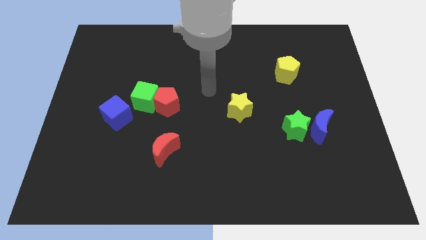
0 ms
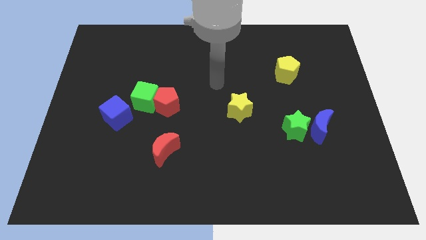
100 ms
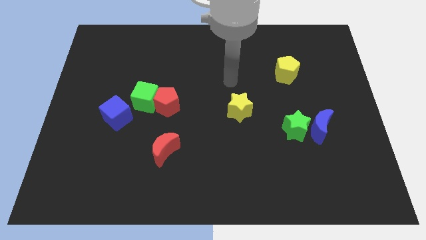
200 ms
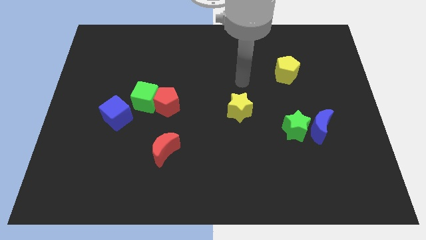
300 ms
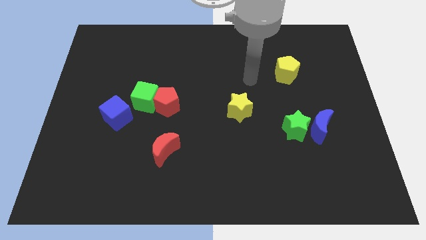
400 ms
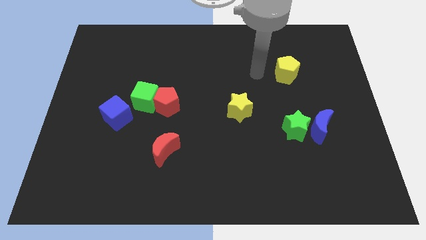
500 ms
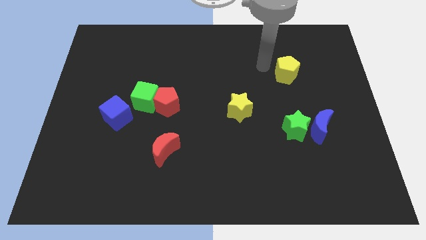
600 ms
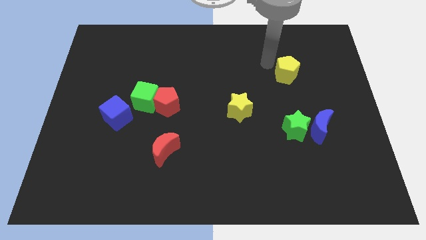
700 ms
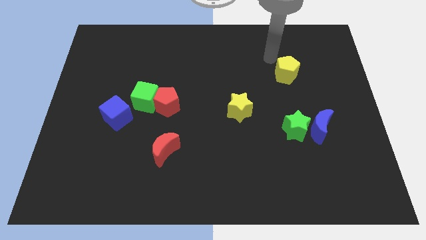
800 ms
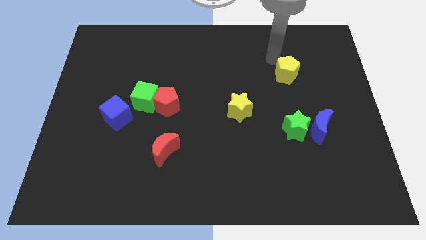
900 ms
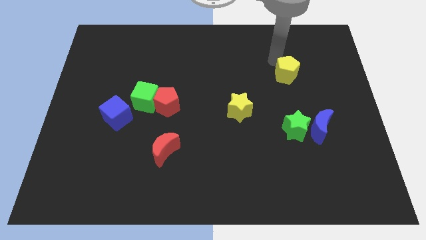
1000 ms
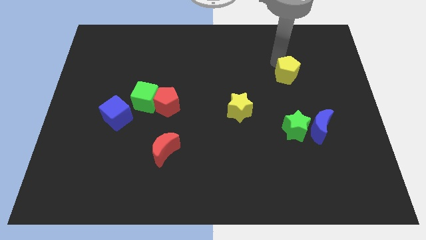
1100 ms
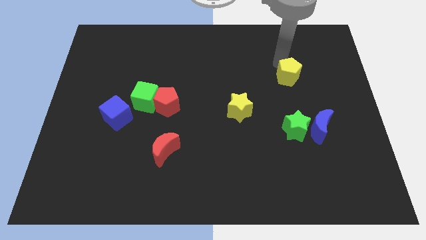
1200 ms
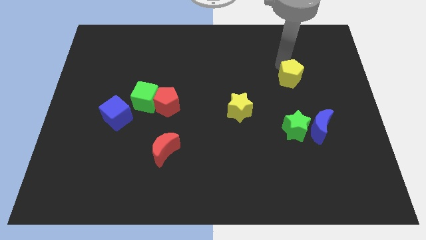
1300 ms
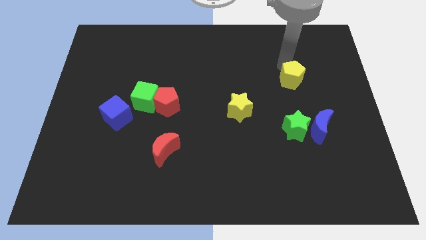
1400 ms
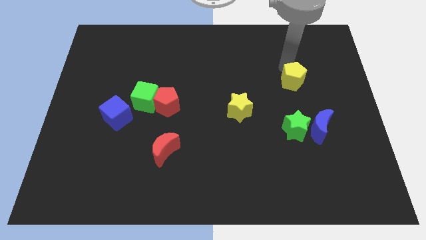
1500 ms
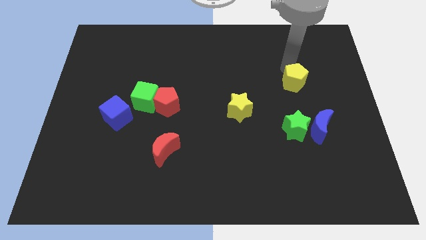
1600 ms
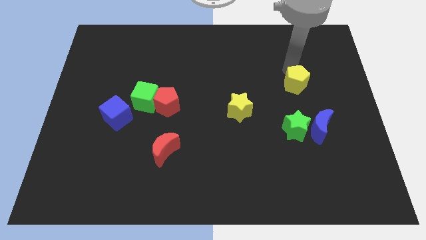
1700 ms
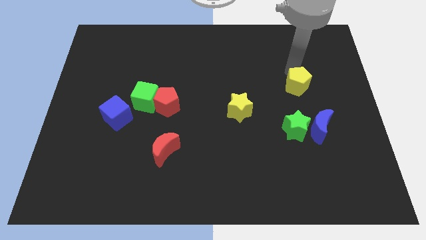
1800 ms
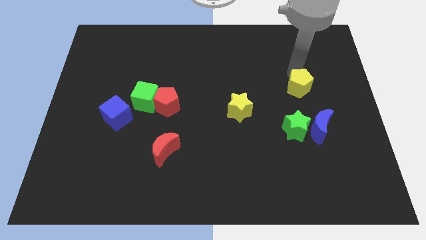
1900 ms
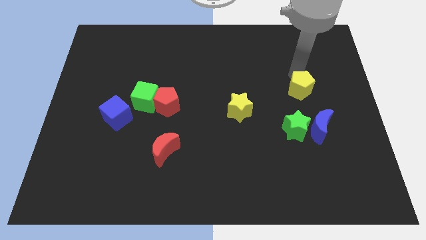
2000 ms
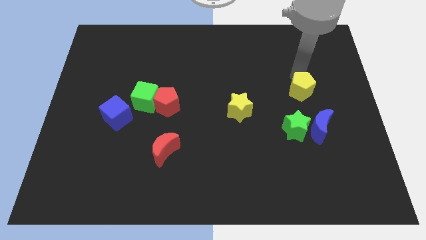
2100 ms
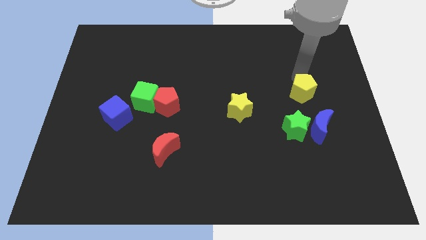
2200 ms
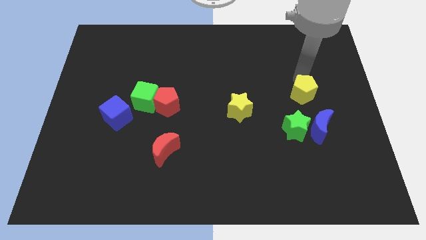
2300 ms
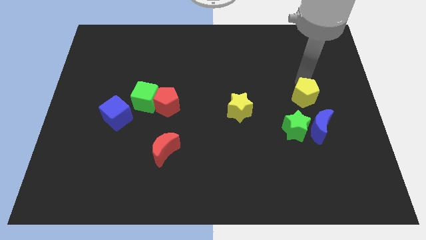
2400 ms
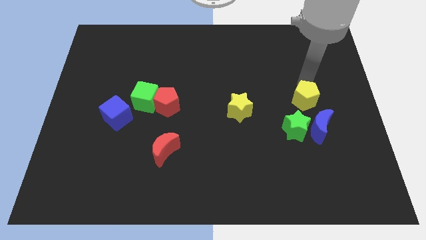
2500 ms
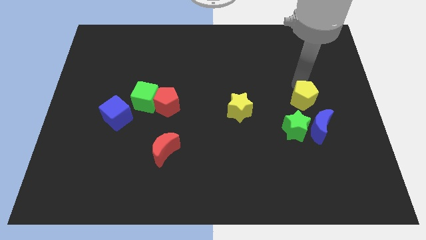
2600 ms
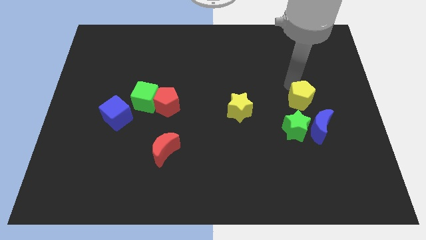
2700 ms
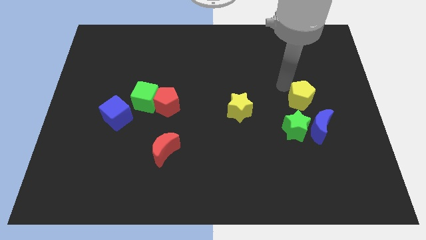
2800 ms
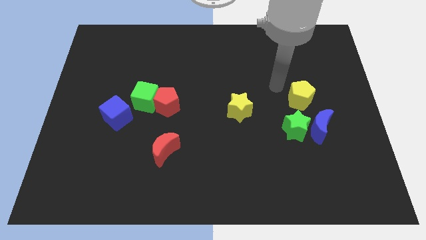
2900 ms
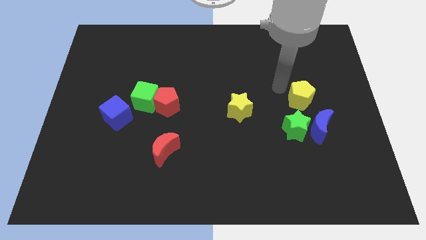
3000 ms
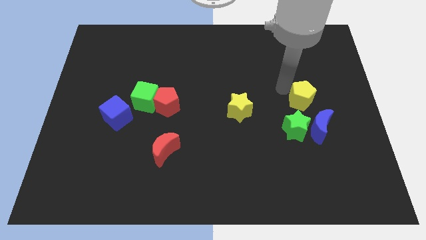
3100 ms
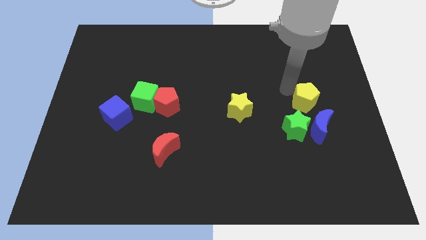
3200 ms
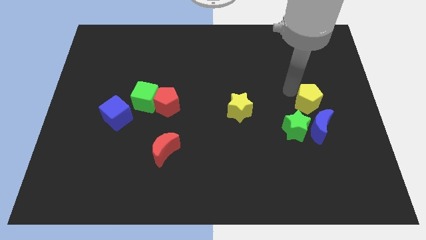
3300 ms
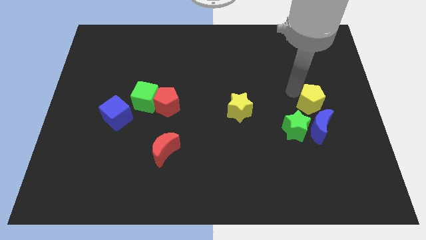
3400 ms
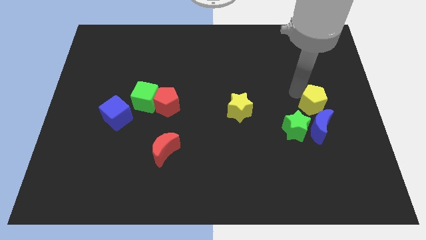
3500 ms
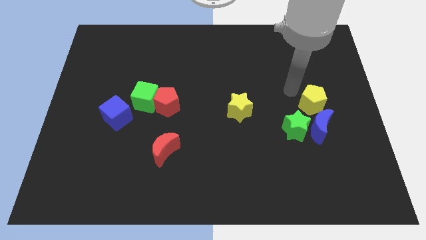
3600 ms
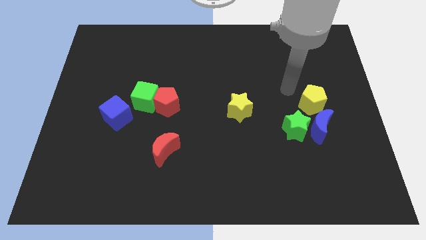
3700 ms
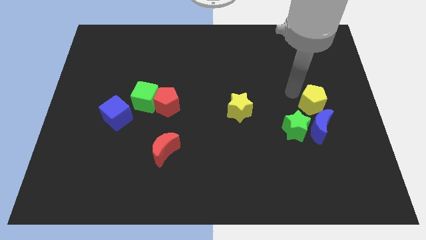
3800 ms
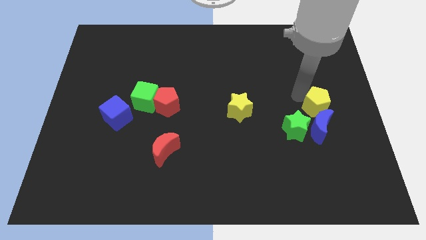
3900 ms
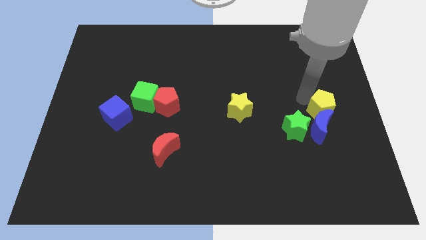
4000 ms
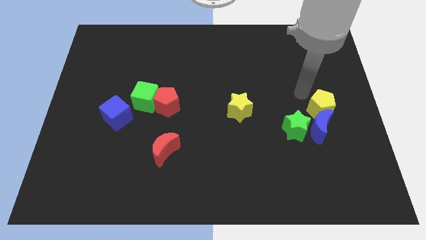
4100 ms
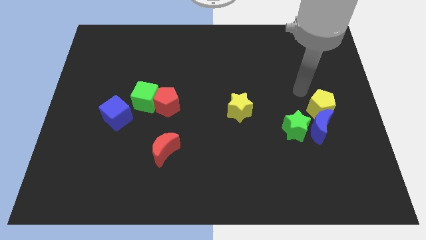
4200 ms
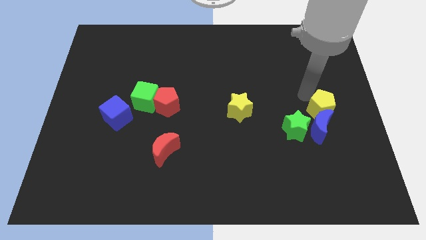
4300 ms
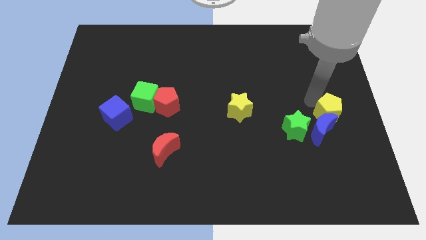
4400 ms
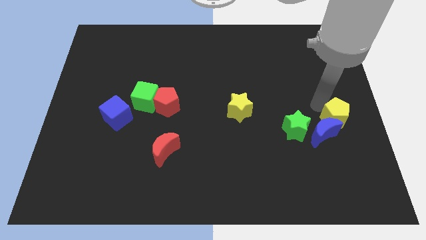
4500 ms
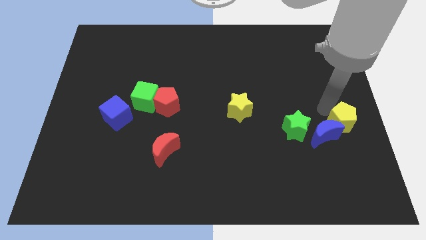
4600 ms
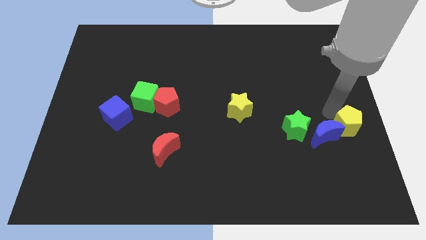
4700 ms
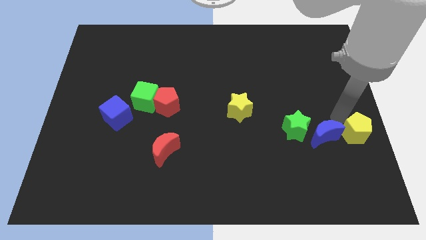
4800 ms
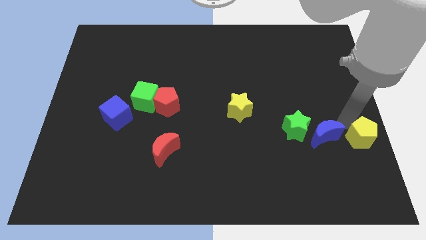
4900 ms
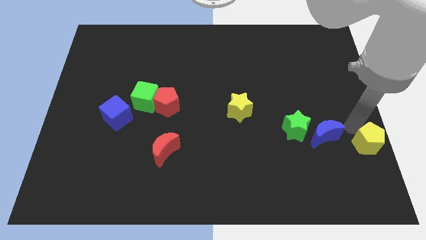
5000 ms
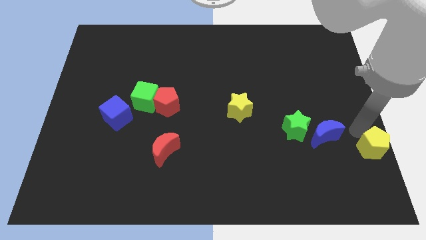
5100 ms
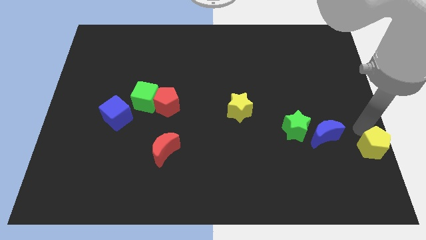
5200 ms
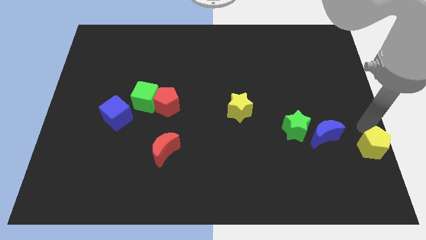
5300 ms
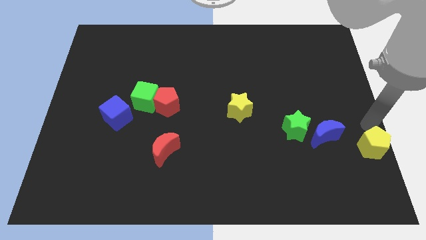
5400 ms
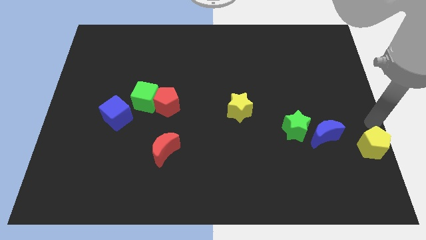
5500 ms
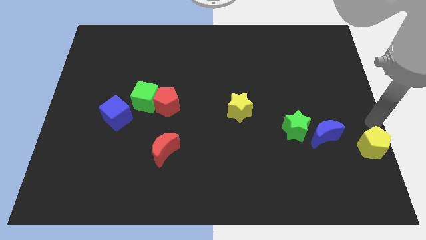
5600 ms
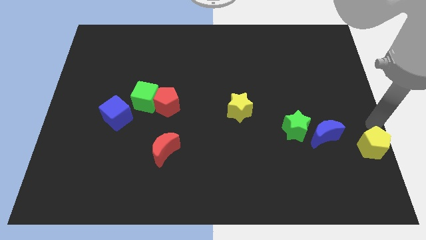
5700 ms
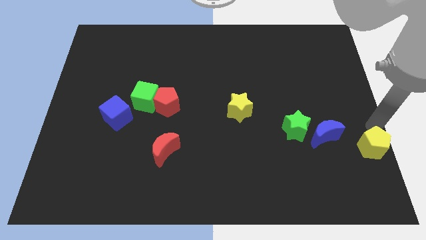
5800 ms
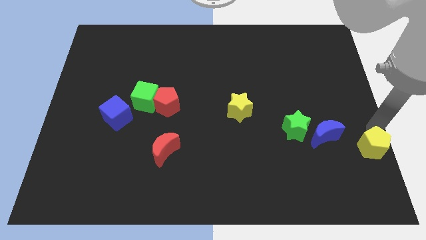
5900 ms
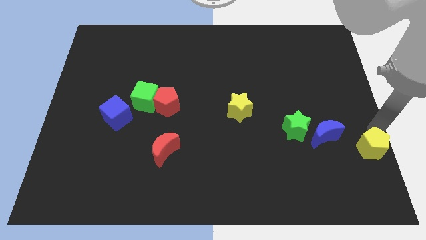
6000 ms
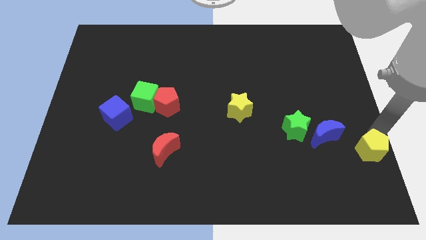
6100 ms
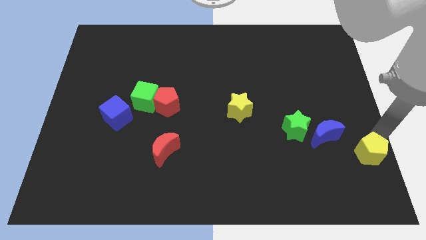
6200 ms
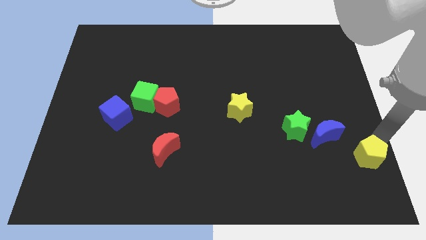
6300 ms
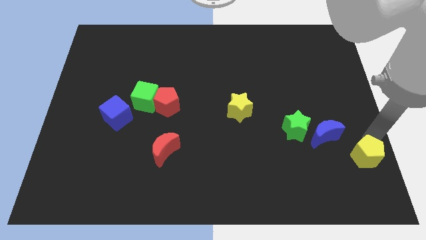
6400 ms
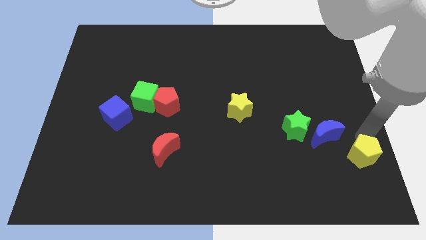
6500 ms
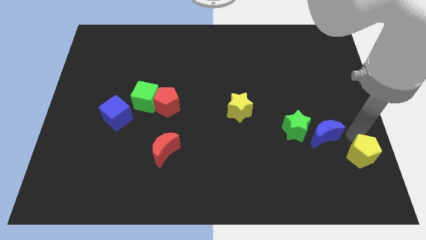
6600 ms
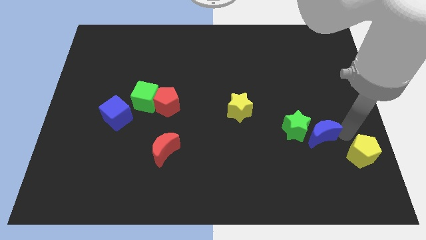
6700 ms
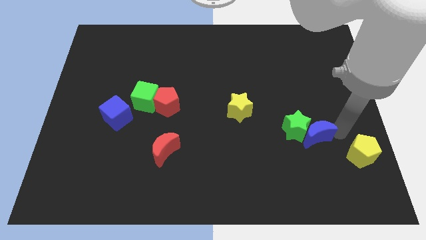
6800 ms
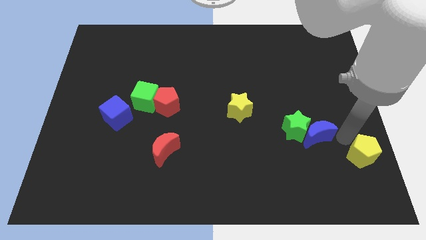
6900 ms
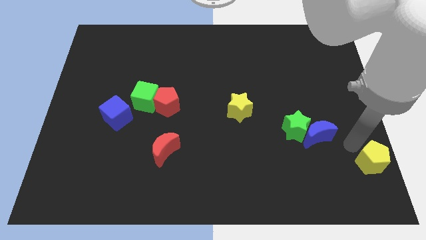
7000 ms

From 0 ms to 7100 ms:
slide the yellow pentagon to the bottom right corner
